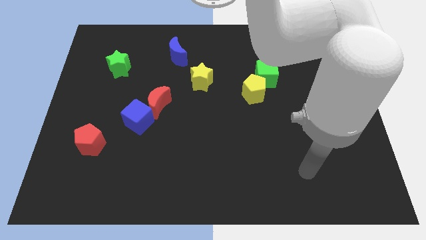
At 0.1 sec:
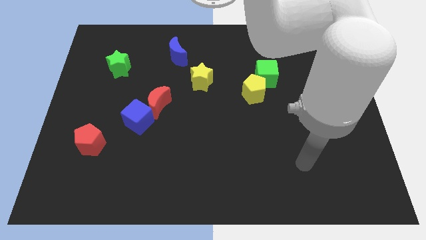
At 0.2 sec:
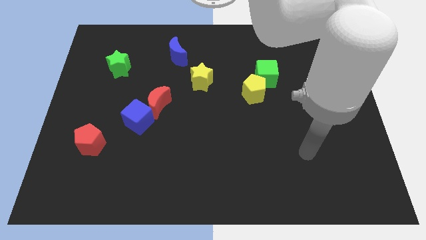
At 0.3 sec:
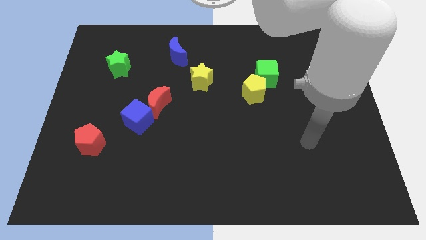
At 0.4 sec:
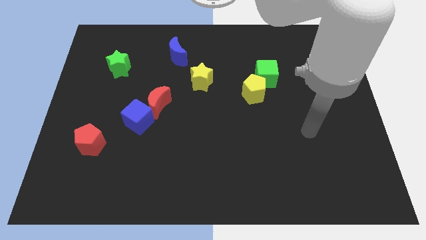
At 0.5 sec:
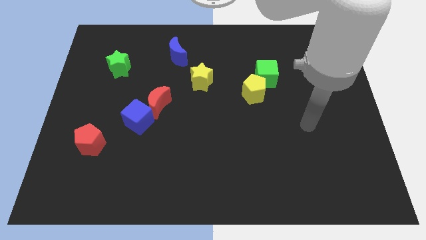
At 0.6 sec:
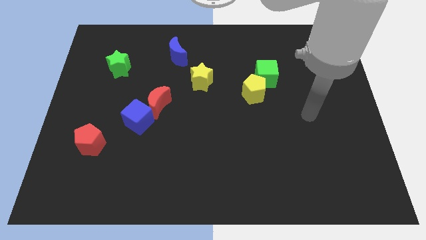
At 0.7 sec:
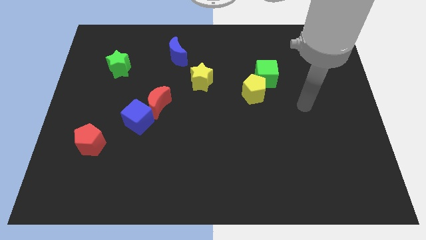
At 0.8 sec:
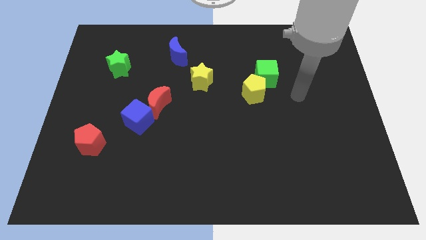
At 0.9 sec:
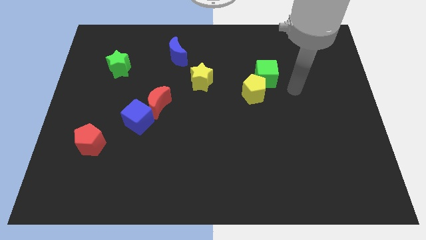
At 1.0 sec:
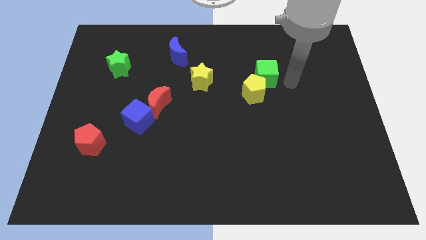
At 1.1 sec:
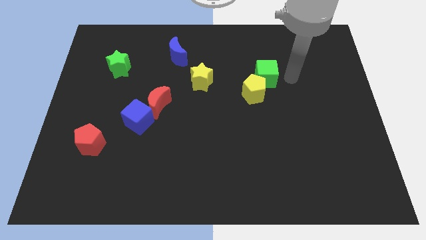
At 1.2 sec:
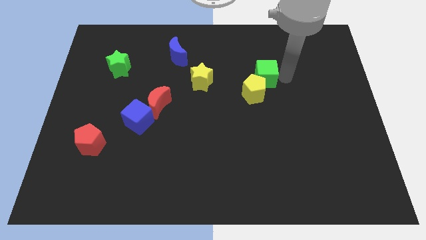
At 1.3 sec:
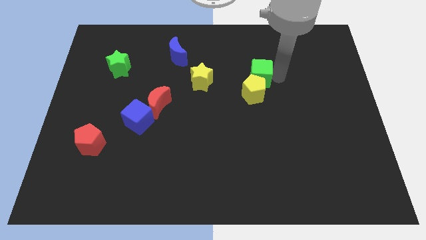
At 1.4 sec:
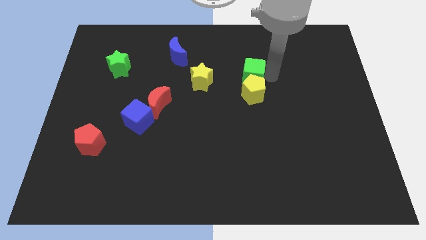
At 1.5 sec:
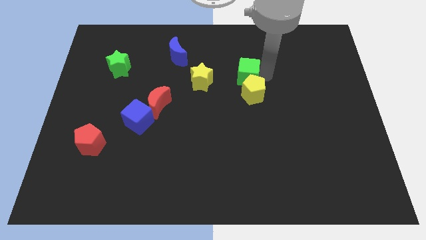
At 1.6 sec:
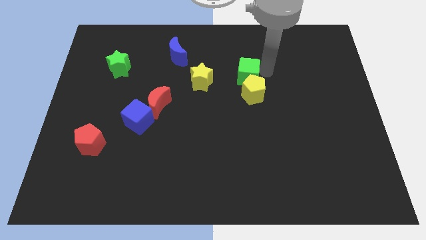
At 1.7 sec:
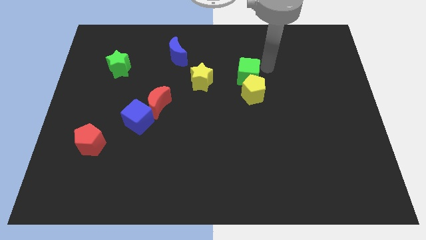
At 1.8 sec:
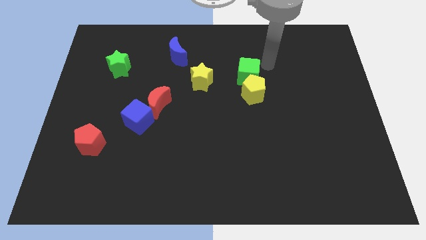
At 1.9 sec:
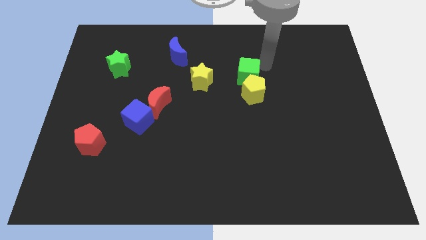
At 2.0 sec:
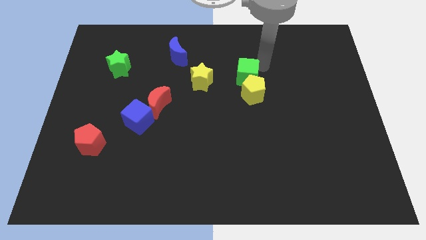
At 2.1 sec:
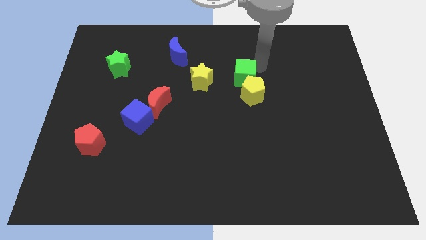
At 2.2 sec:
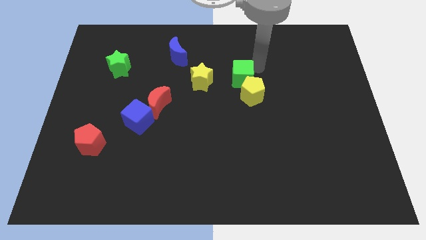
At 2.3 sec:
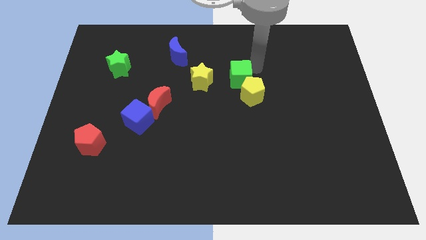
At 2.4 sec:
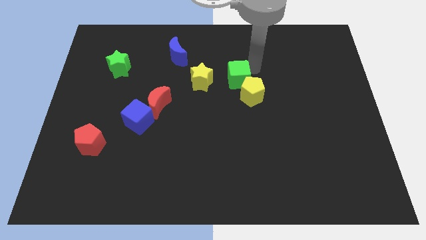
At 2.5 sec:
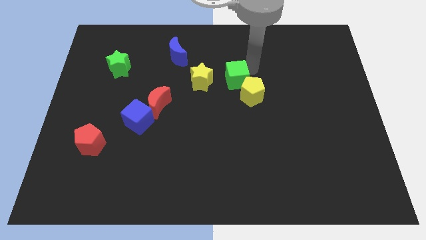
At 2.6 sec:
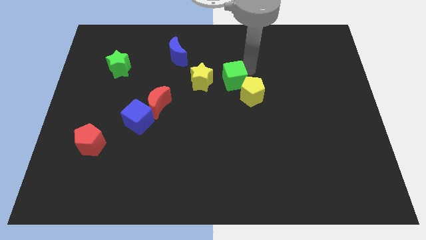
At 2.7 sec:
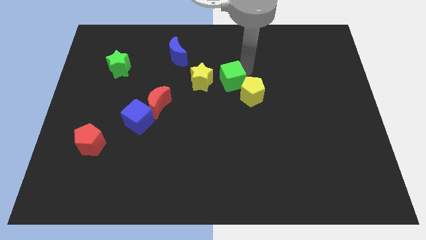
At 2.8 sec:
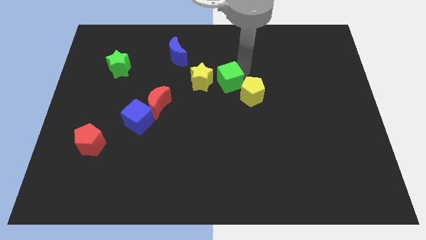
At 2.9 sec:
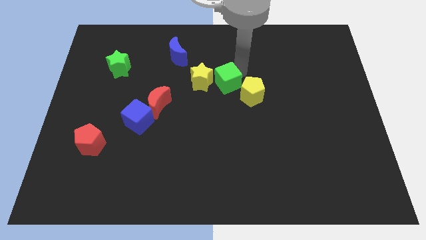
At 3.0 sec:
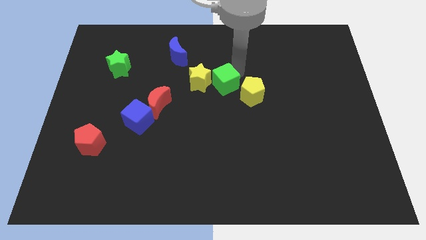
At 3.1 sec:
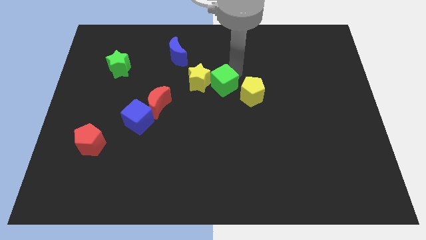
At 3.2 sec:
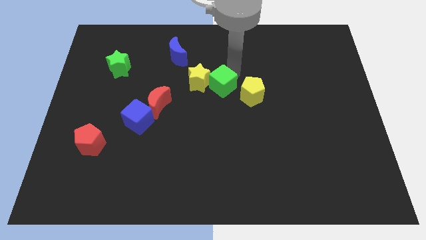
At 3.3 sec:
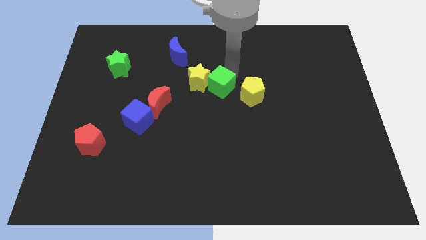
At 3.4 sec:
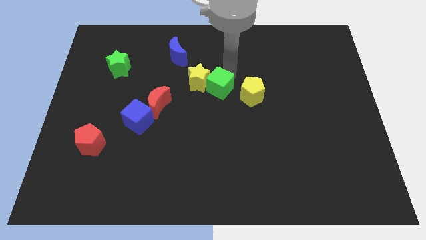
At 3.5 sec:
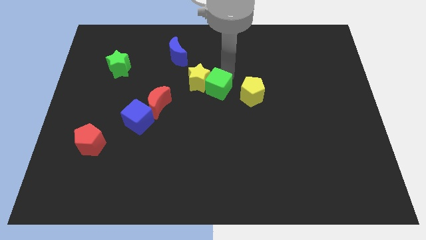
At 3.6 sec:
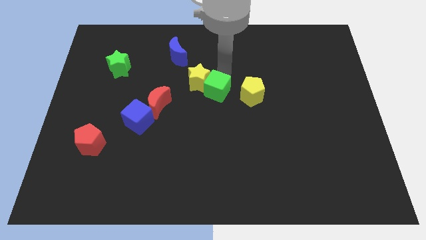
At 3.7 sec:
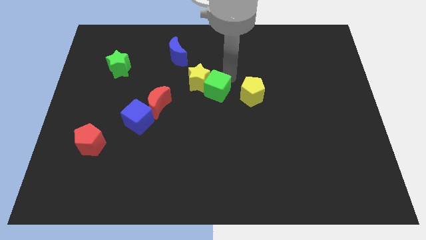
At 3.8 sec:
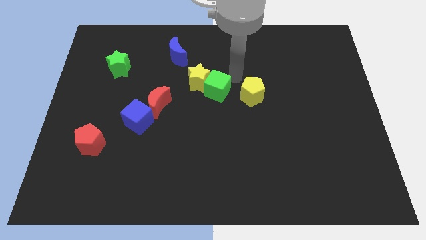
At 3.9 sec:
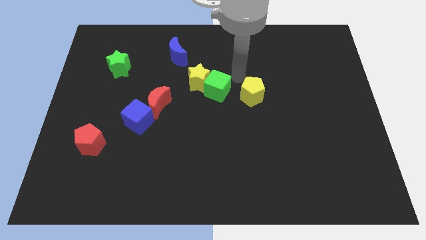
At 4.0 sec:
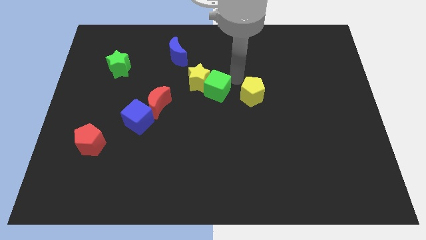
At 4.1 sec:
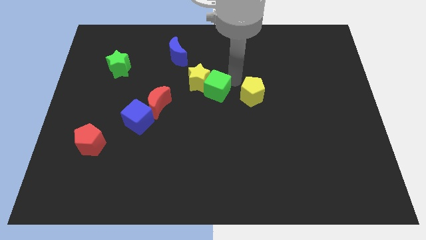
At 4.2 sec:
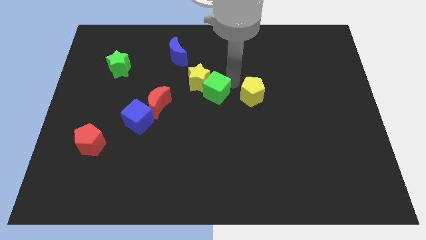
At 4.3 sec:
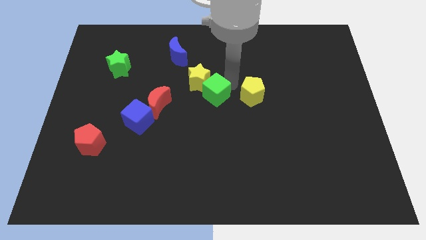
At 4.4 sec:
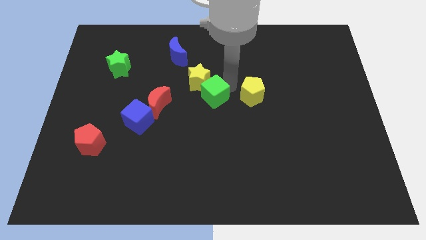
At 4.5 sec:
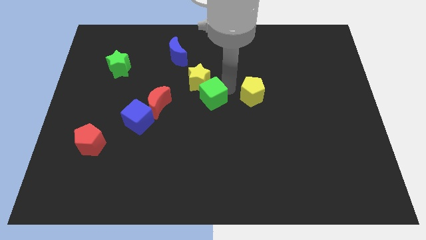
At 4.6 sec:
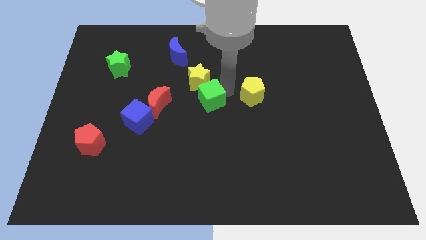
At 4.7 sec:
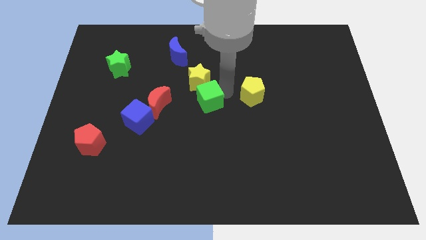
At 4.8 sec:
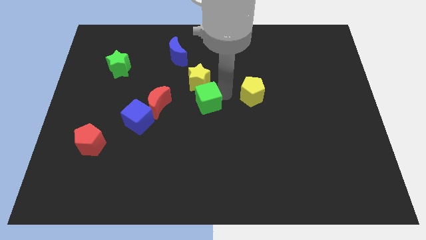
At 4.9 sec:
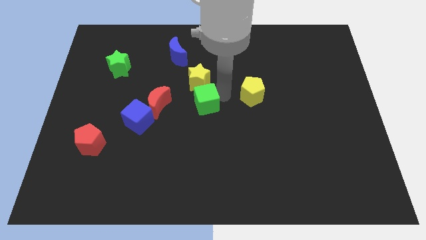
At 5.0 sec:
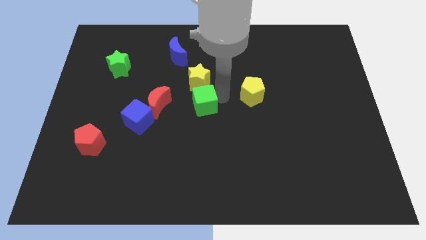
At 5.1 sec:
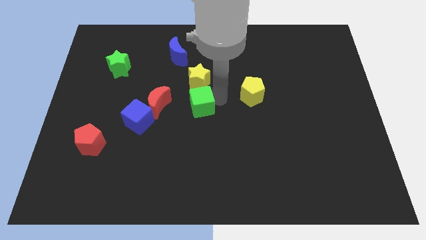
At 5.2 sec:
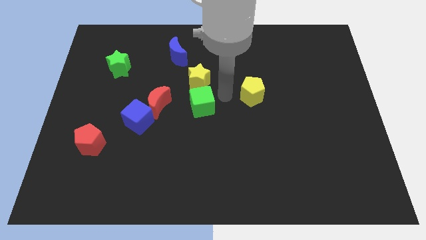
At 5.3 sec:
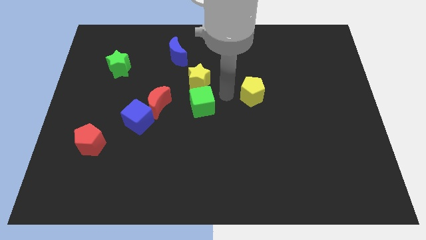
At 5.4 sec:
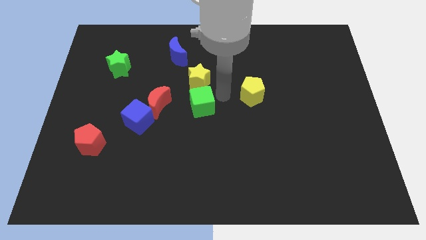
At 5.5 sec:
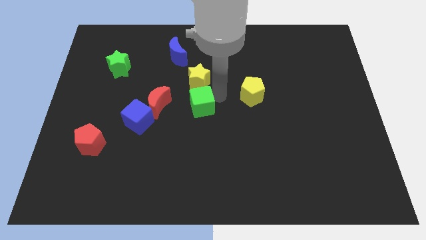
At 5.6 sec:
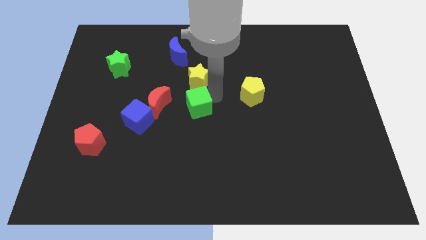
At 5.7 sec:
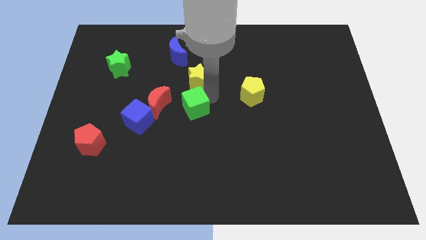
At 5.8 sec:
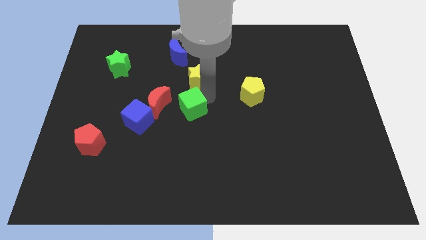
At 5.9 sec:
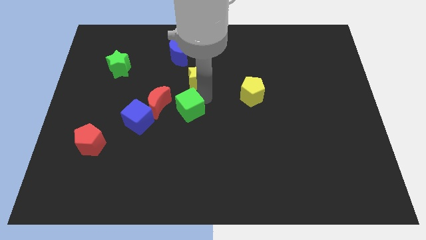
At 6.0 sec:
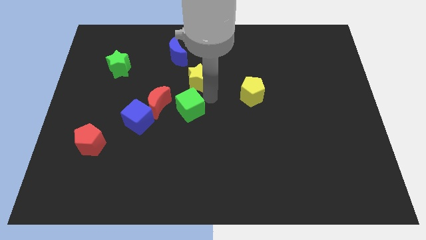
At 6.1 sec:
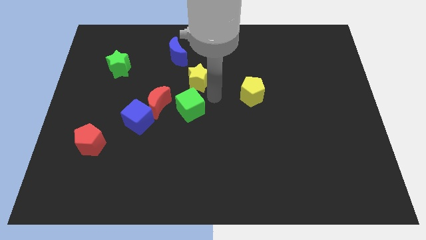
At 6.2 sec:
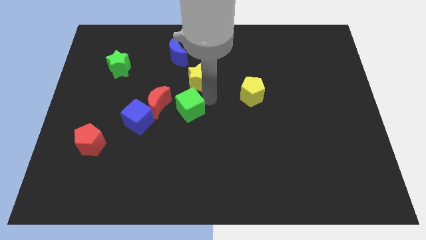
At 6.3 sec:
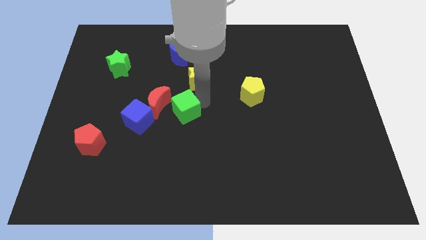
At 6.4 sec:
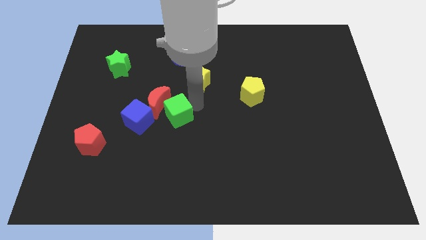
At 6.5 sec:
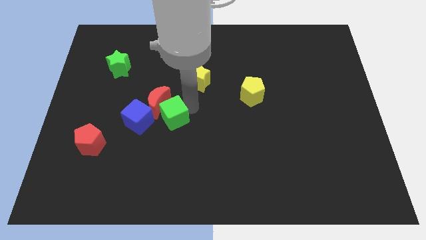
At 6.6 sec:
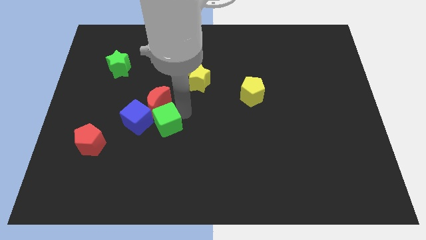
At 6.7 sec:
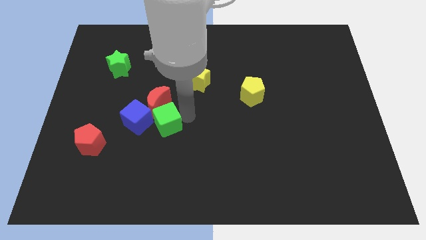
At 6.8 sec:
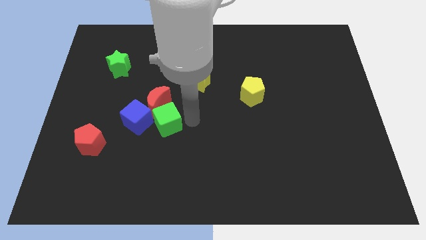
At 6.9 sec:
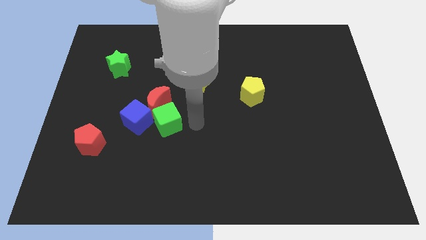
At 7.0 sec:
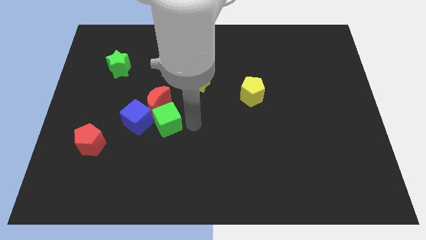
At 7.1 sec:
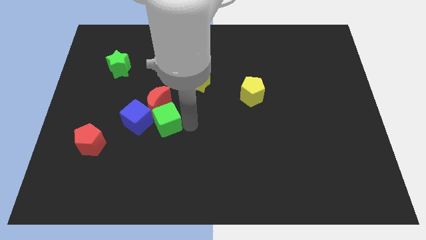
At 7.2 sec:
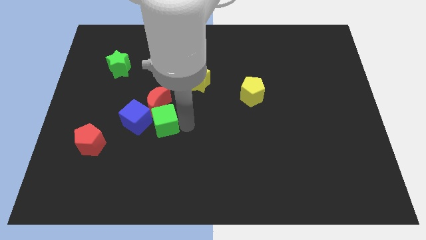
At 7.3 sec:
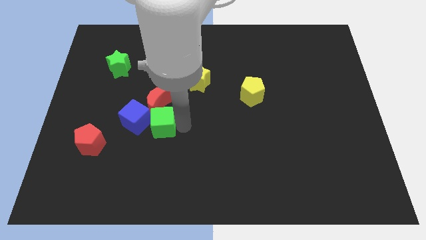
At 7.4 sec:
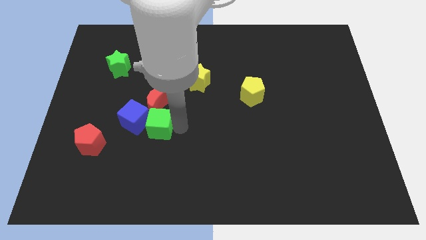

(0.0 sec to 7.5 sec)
put the green cube towards the blue cube
